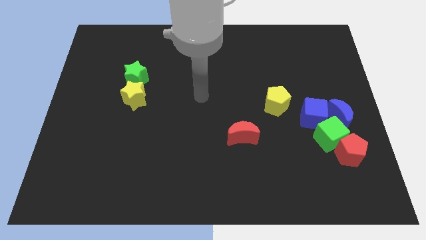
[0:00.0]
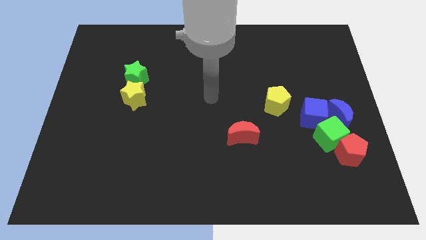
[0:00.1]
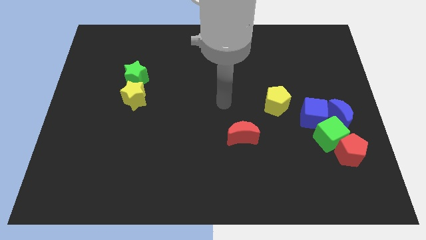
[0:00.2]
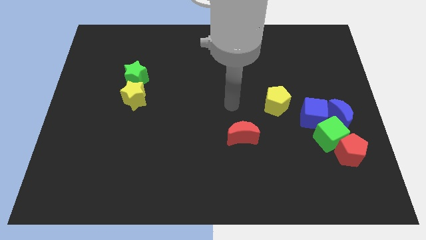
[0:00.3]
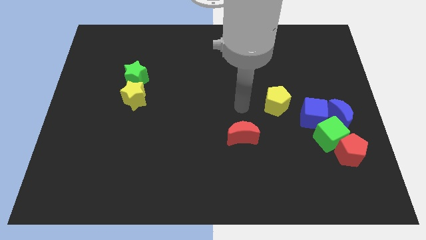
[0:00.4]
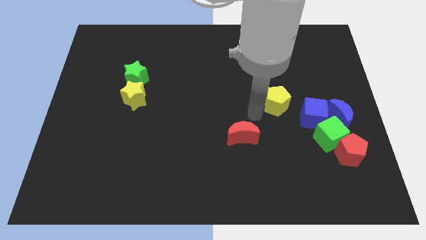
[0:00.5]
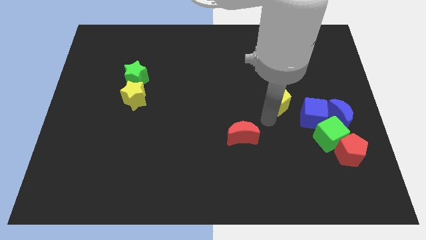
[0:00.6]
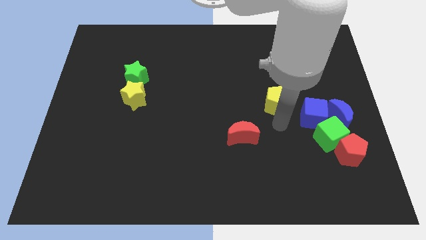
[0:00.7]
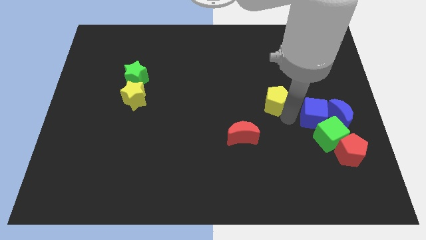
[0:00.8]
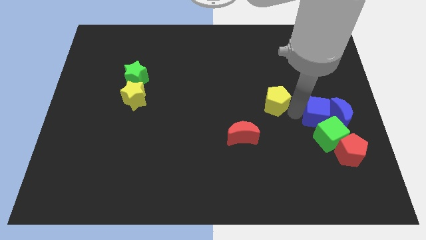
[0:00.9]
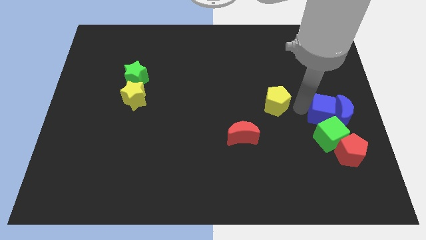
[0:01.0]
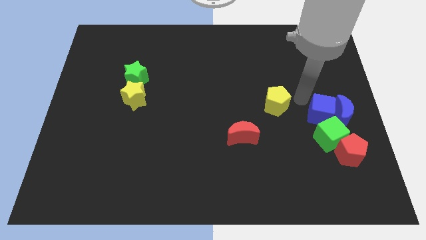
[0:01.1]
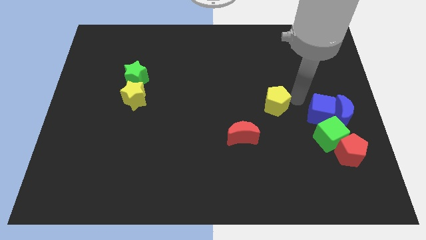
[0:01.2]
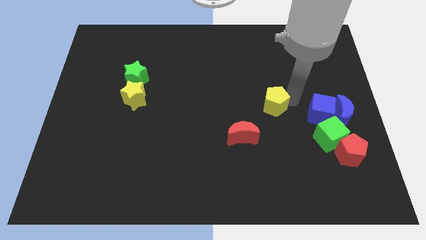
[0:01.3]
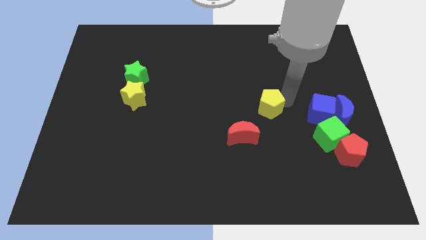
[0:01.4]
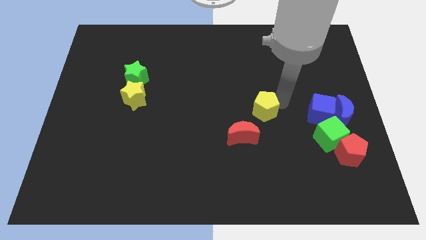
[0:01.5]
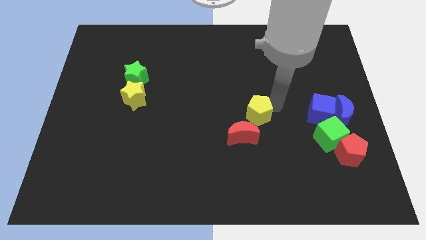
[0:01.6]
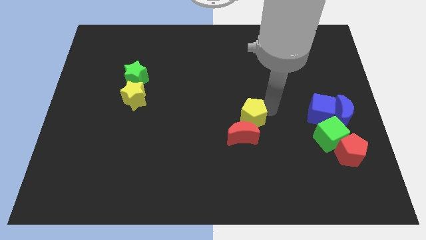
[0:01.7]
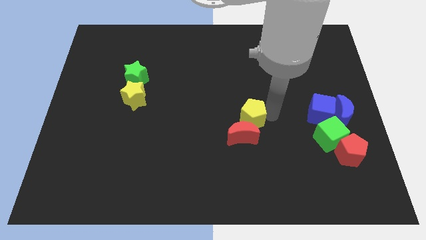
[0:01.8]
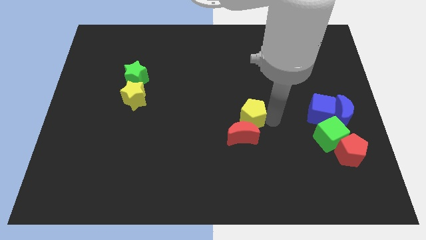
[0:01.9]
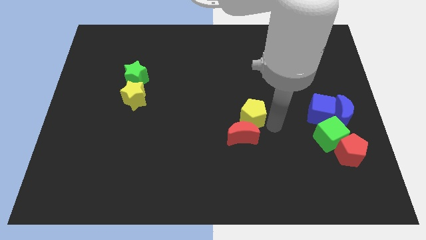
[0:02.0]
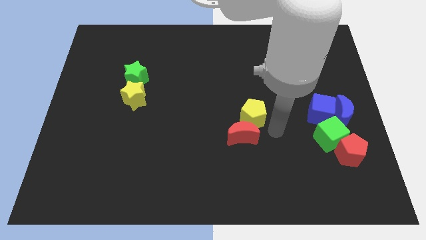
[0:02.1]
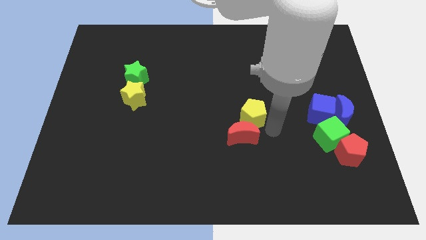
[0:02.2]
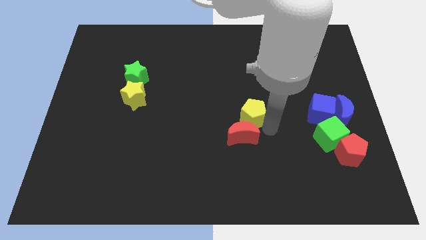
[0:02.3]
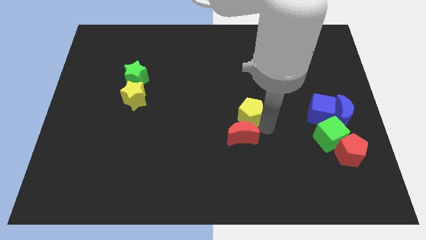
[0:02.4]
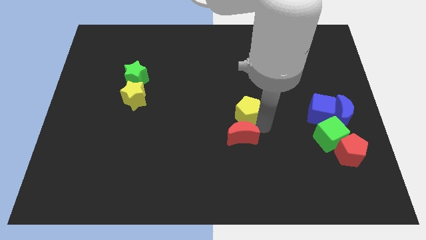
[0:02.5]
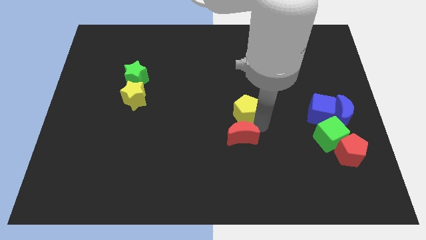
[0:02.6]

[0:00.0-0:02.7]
slightly push the yellow pentagon left

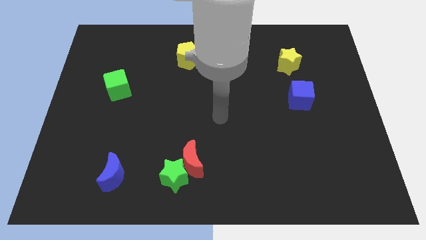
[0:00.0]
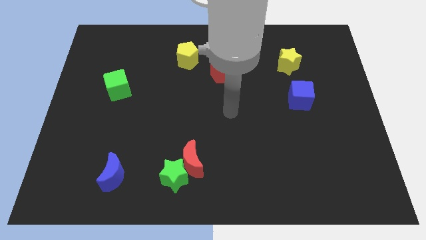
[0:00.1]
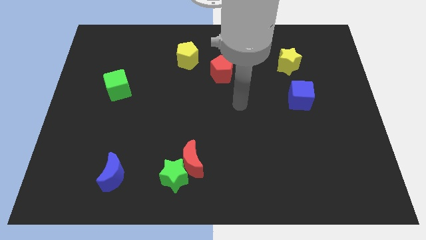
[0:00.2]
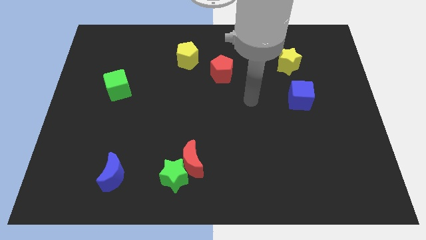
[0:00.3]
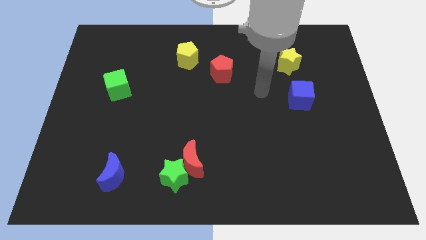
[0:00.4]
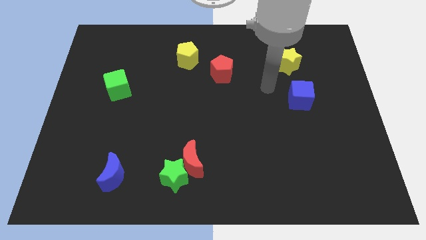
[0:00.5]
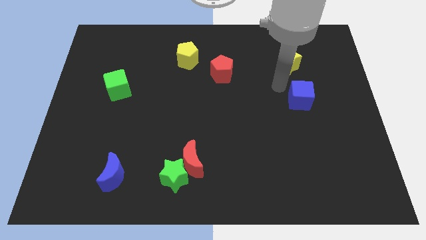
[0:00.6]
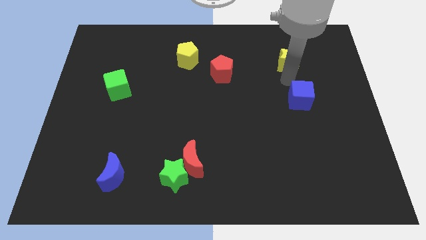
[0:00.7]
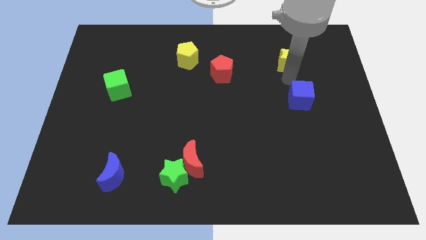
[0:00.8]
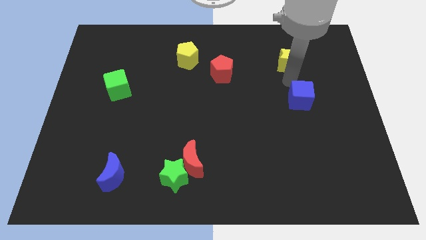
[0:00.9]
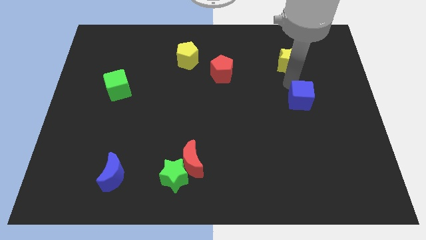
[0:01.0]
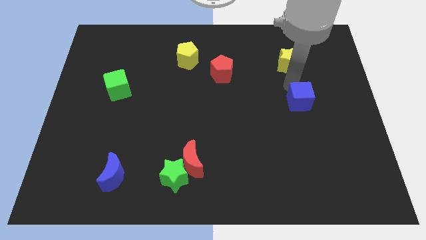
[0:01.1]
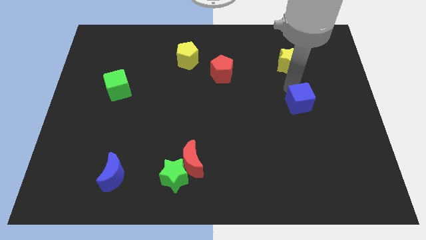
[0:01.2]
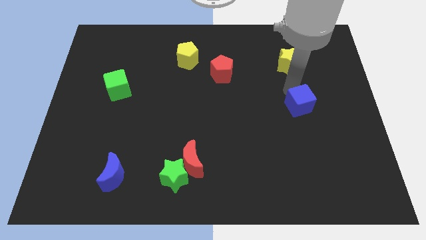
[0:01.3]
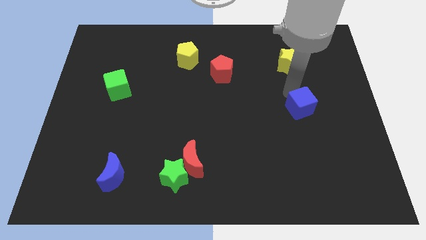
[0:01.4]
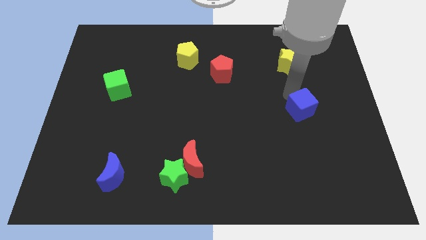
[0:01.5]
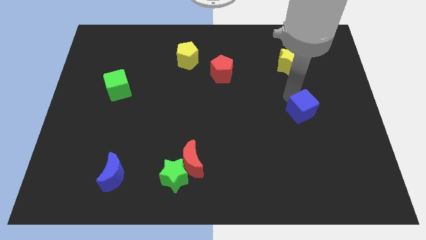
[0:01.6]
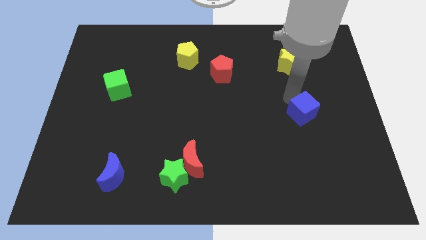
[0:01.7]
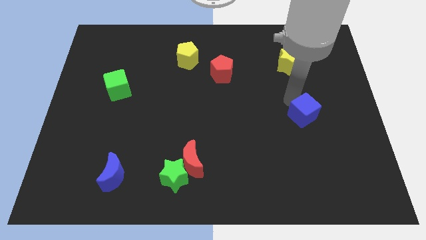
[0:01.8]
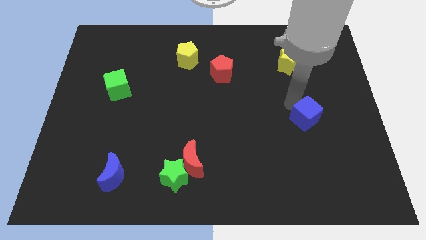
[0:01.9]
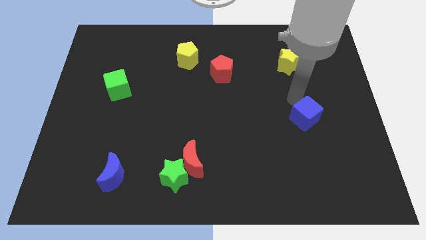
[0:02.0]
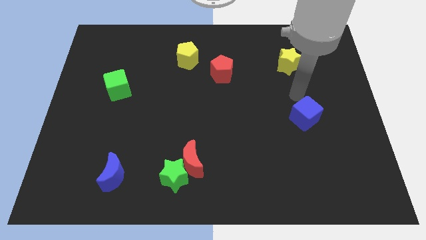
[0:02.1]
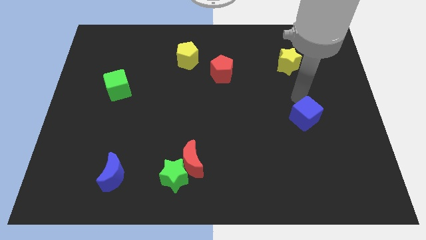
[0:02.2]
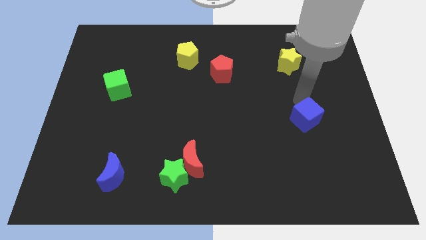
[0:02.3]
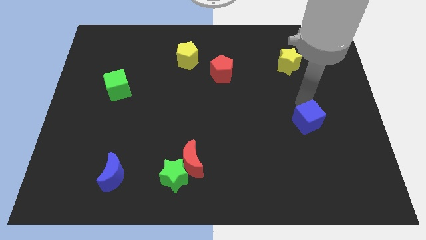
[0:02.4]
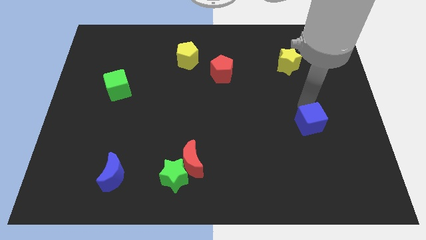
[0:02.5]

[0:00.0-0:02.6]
push the blue cube downwards somewhat

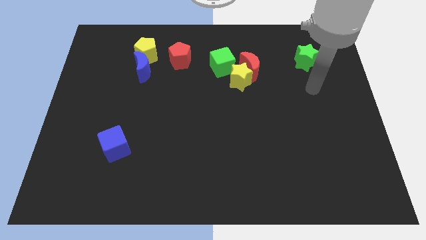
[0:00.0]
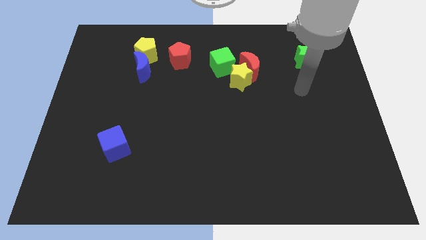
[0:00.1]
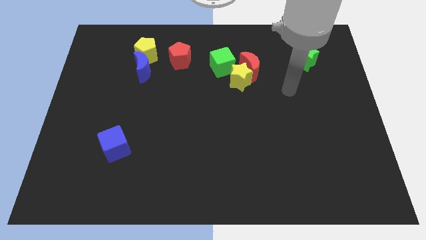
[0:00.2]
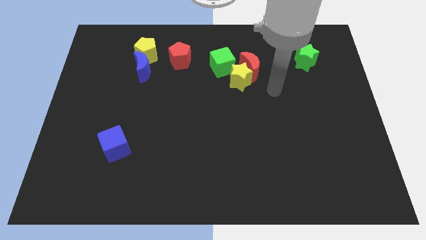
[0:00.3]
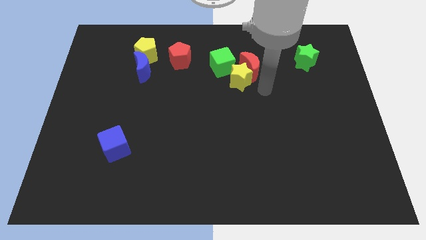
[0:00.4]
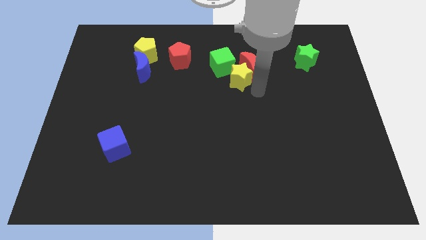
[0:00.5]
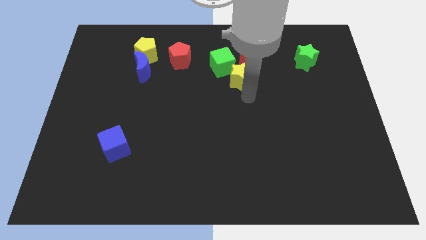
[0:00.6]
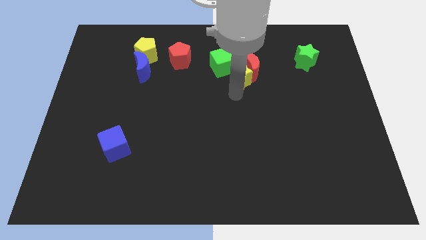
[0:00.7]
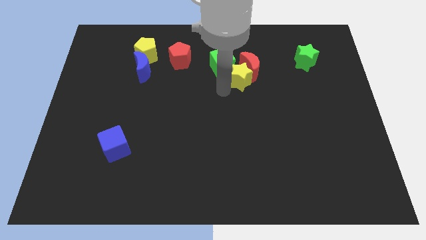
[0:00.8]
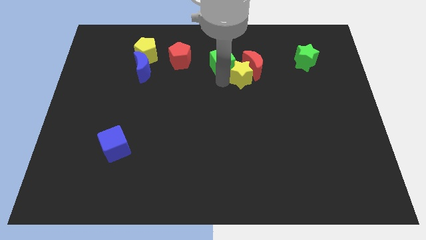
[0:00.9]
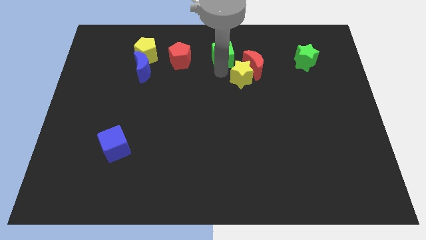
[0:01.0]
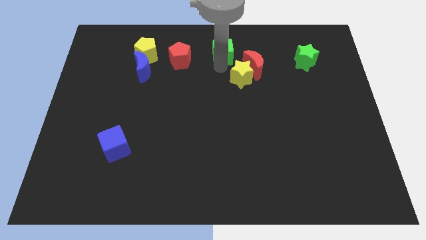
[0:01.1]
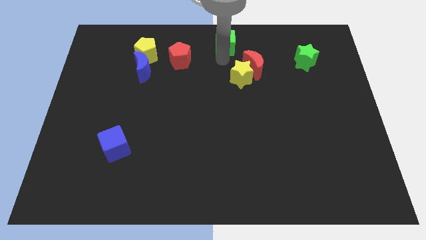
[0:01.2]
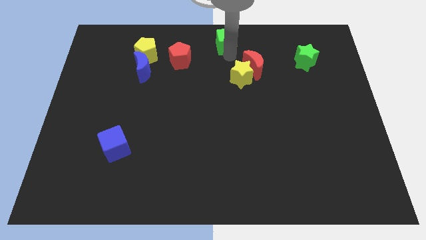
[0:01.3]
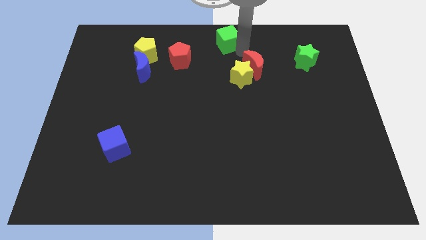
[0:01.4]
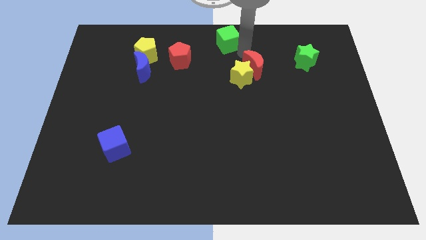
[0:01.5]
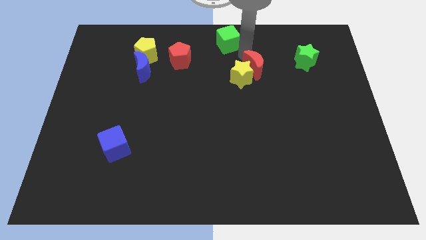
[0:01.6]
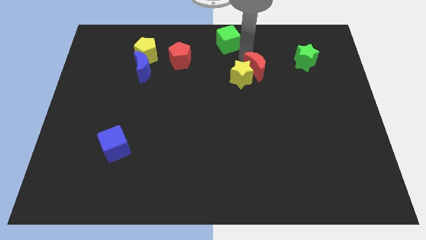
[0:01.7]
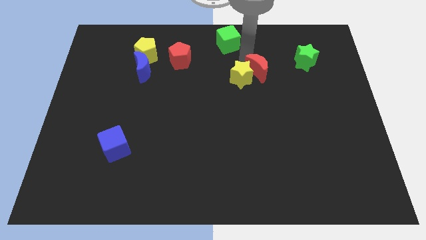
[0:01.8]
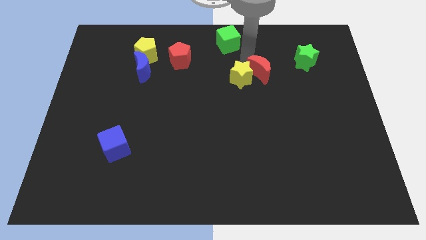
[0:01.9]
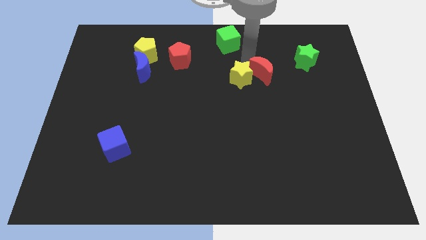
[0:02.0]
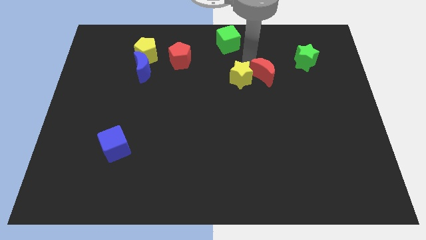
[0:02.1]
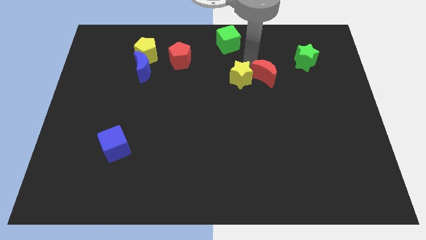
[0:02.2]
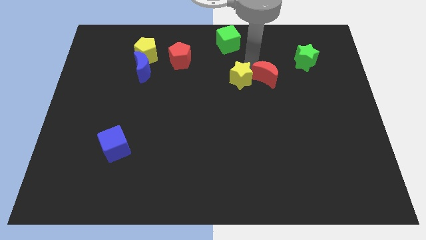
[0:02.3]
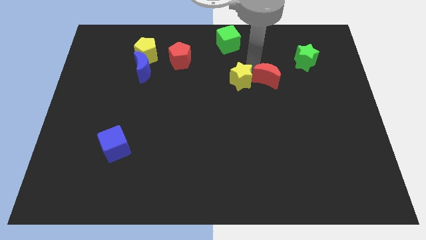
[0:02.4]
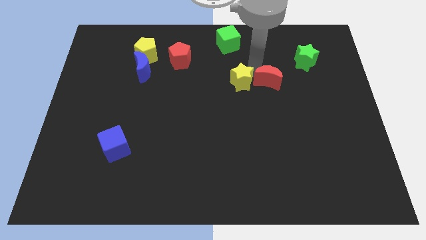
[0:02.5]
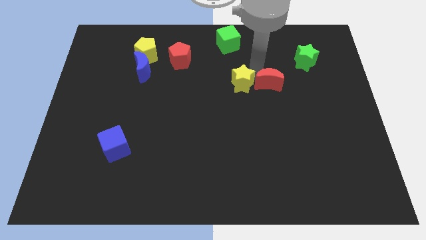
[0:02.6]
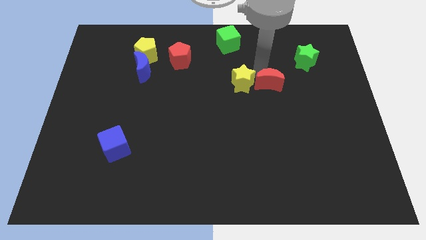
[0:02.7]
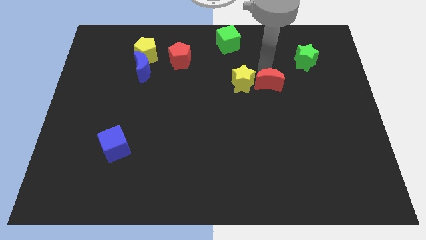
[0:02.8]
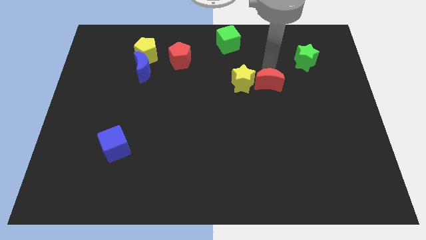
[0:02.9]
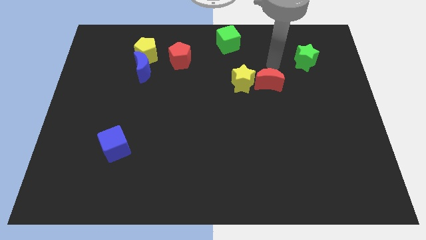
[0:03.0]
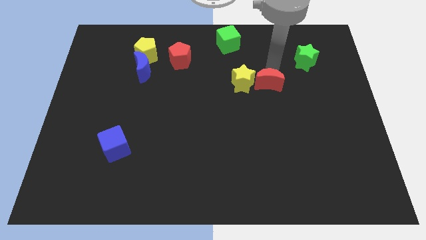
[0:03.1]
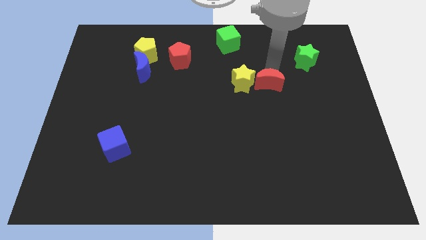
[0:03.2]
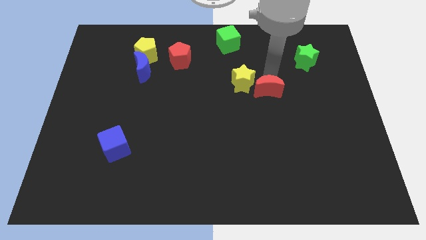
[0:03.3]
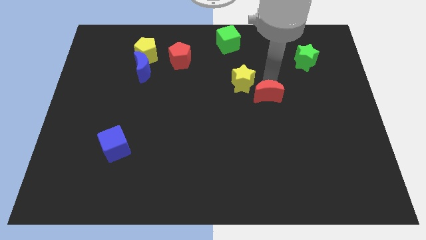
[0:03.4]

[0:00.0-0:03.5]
move the red moon somewhat downwards
